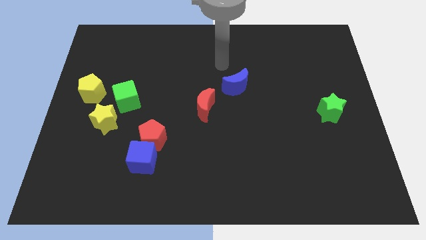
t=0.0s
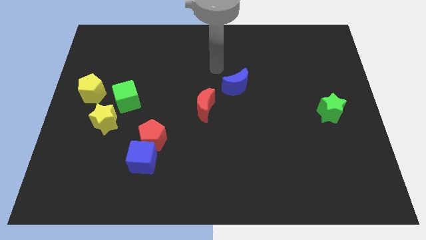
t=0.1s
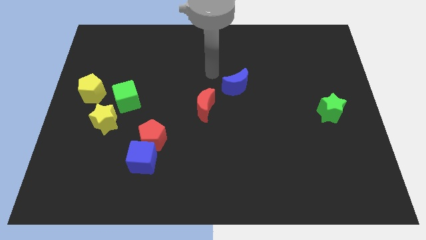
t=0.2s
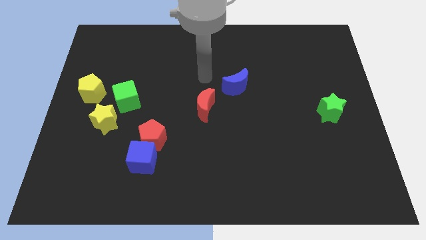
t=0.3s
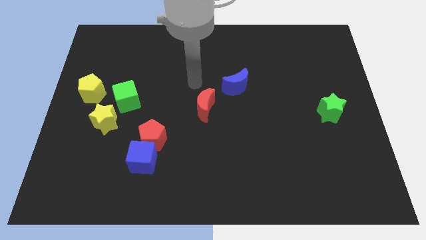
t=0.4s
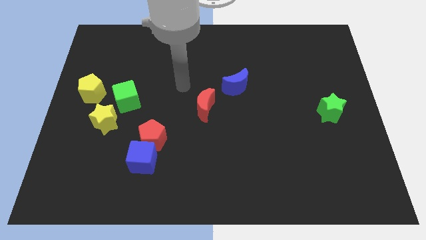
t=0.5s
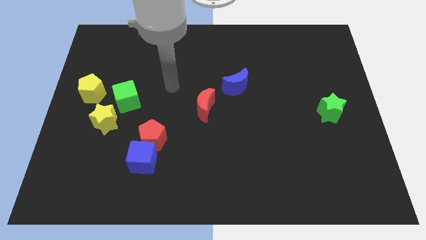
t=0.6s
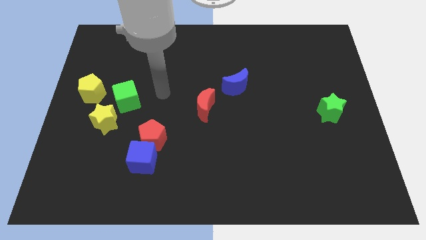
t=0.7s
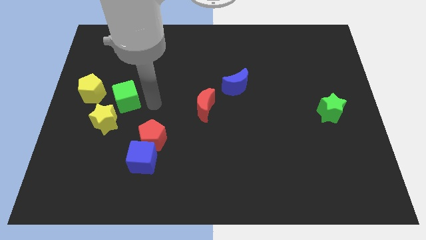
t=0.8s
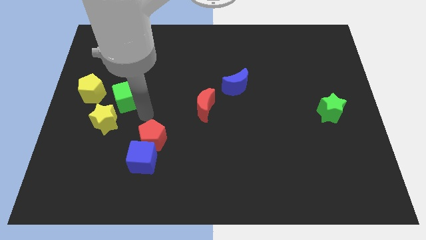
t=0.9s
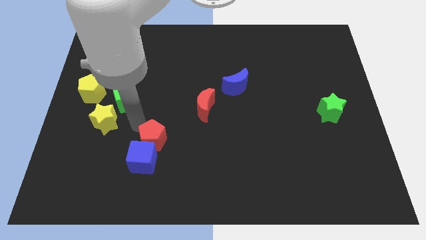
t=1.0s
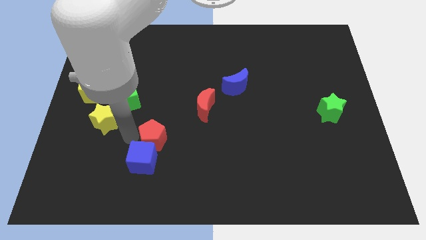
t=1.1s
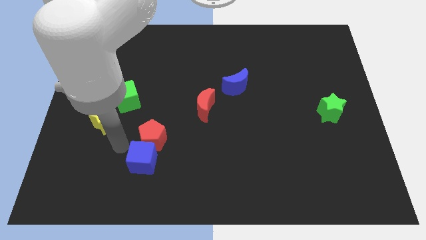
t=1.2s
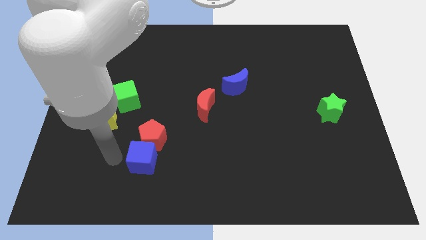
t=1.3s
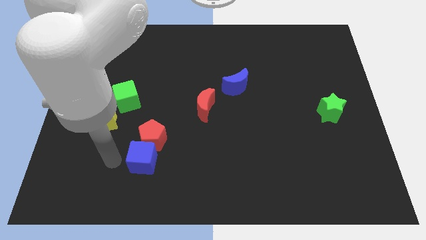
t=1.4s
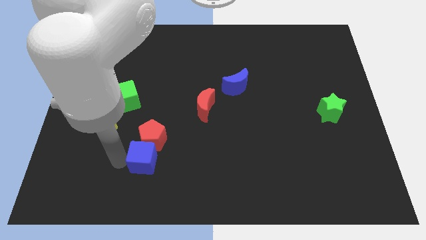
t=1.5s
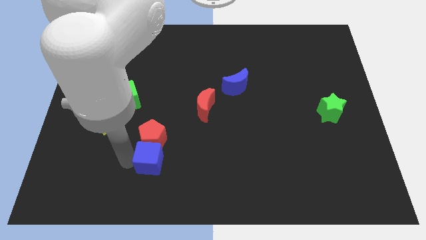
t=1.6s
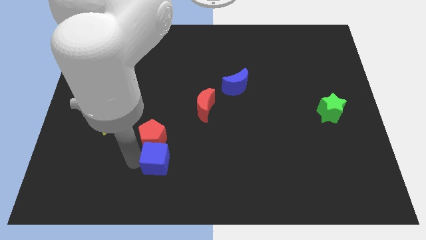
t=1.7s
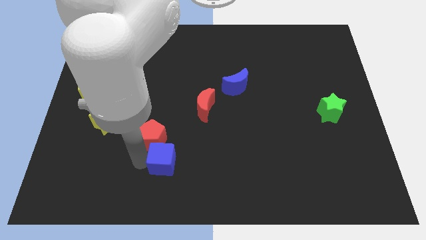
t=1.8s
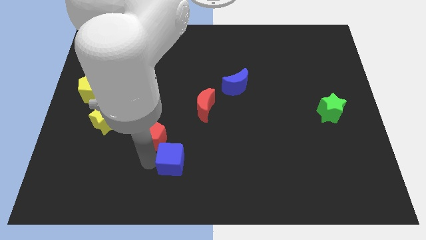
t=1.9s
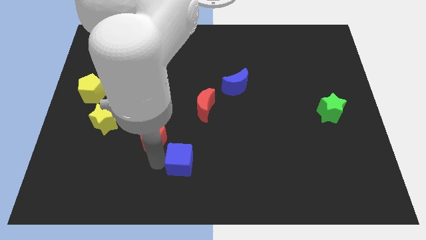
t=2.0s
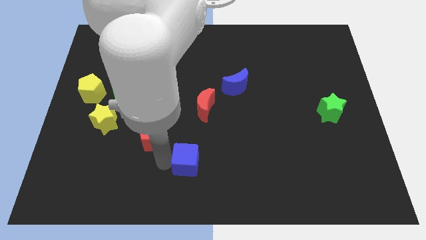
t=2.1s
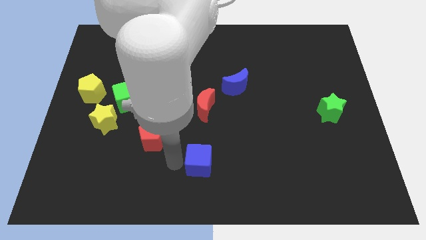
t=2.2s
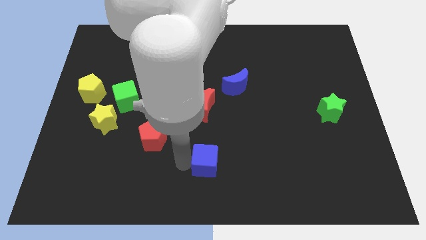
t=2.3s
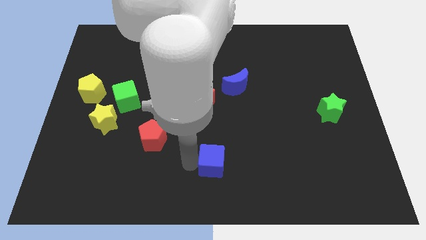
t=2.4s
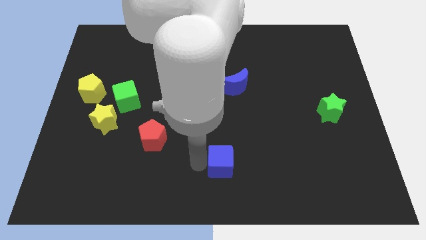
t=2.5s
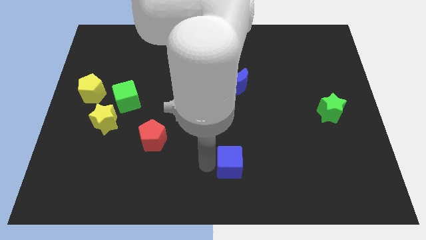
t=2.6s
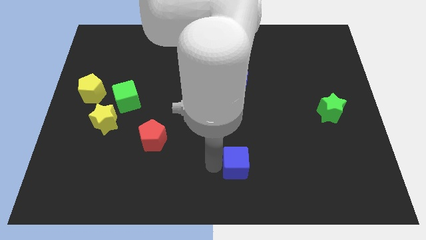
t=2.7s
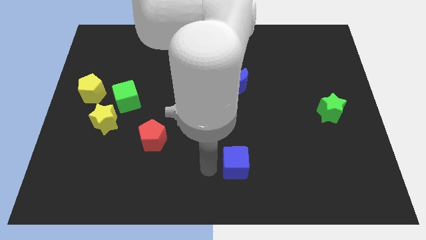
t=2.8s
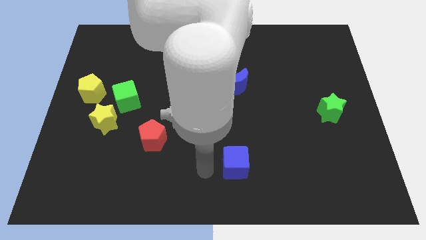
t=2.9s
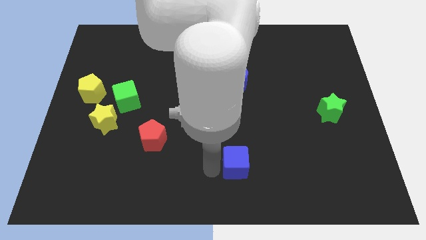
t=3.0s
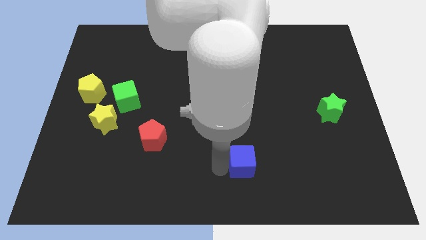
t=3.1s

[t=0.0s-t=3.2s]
push the blue cube right

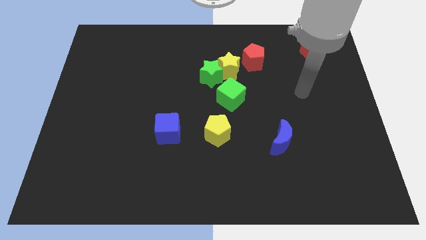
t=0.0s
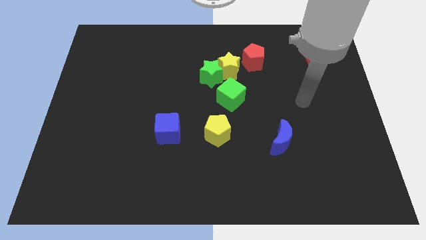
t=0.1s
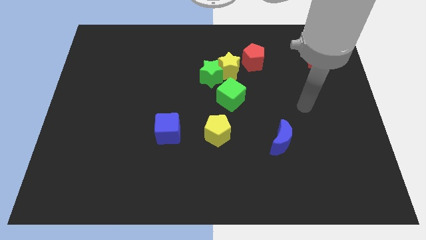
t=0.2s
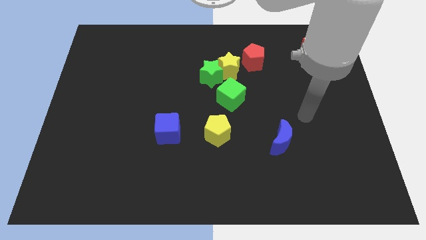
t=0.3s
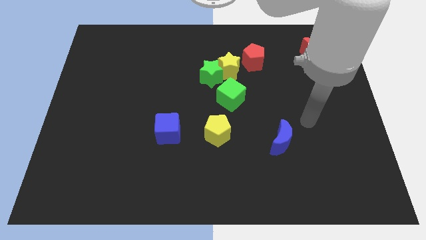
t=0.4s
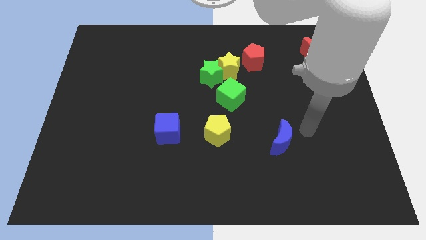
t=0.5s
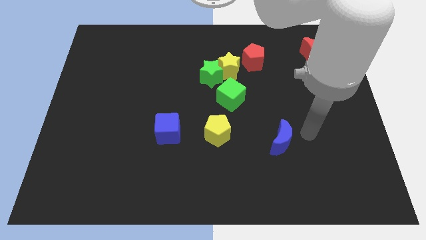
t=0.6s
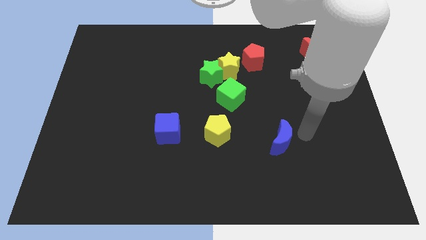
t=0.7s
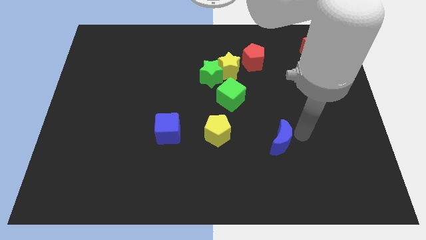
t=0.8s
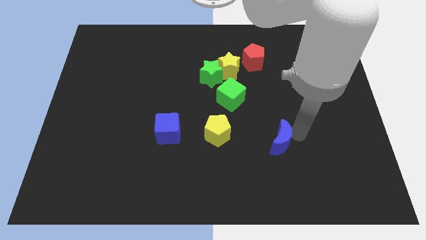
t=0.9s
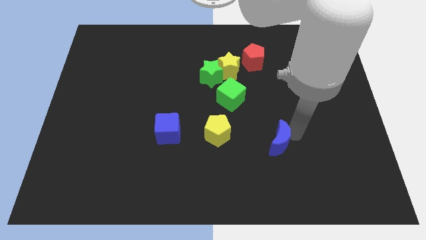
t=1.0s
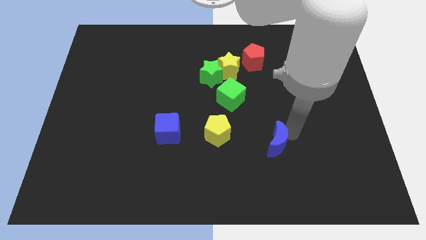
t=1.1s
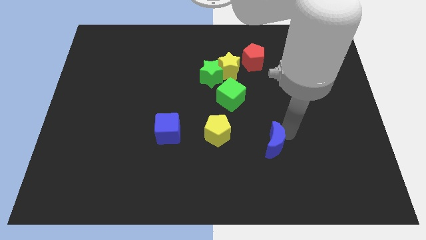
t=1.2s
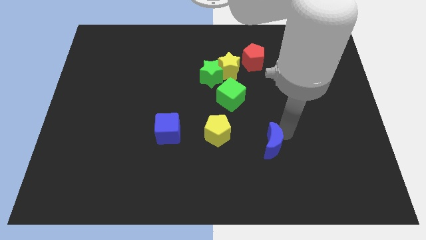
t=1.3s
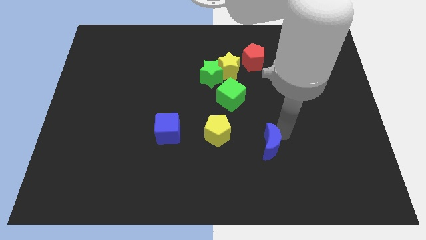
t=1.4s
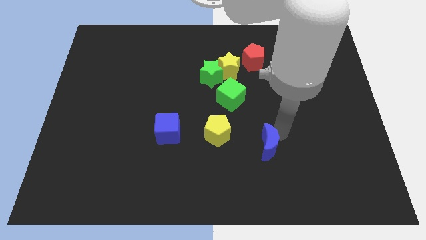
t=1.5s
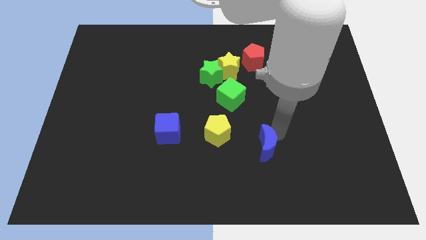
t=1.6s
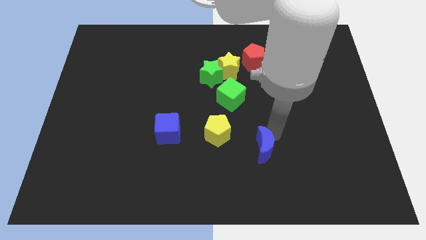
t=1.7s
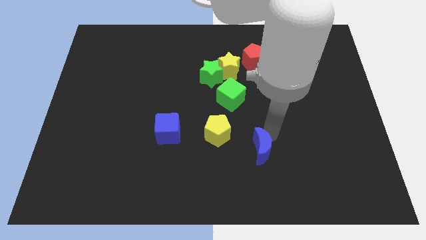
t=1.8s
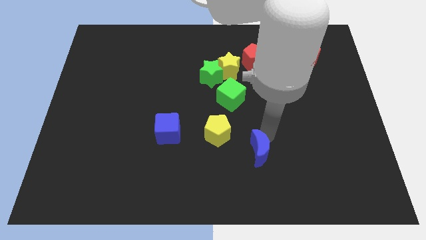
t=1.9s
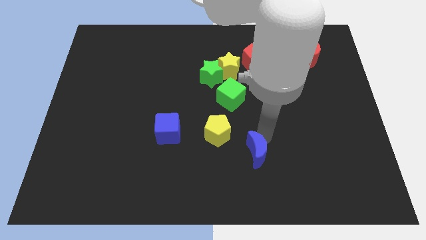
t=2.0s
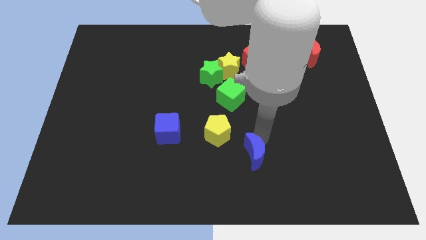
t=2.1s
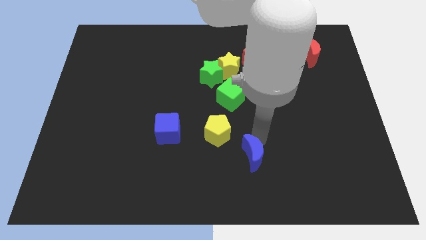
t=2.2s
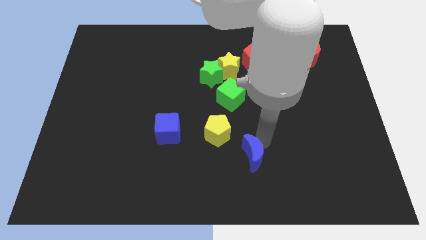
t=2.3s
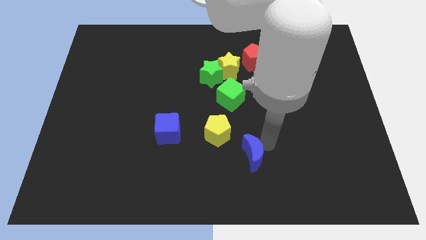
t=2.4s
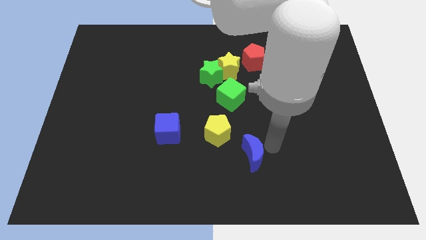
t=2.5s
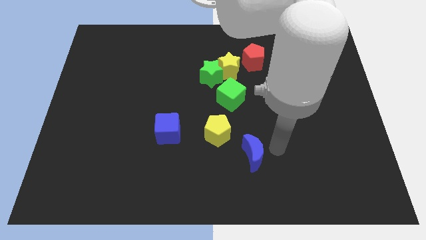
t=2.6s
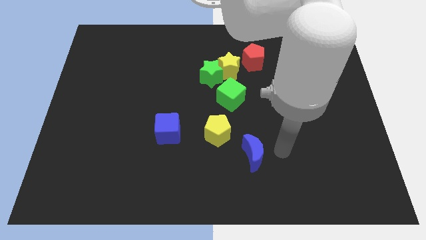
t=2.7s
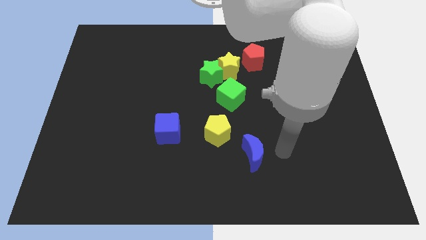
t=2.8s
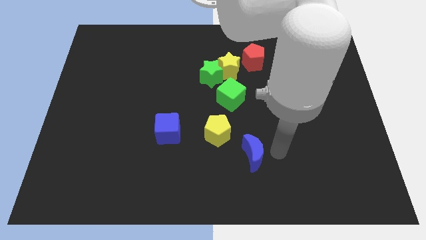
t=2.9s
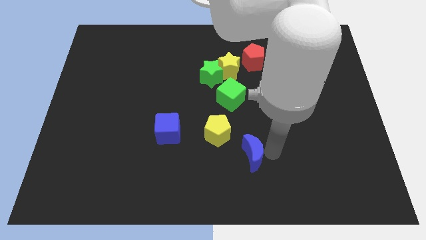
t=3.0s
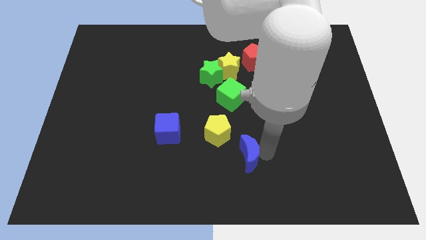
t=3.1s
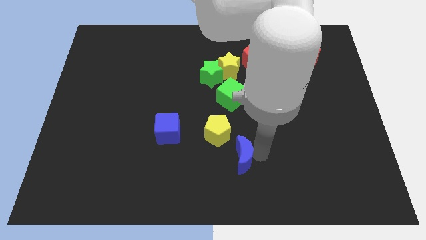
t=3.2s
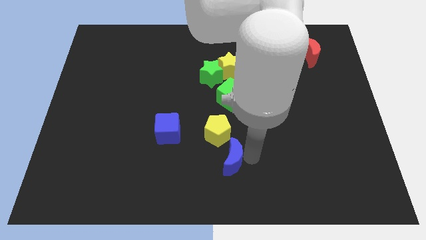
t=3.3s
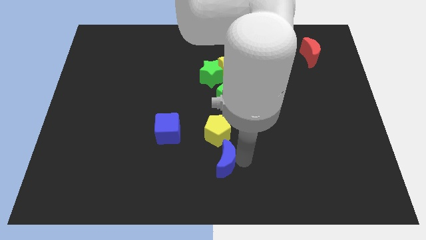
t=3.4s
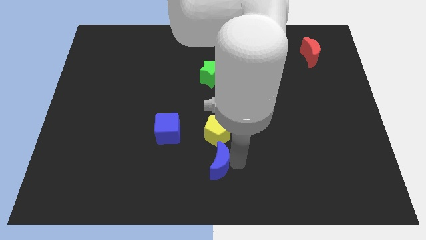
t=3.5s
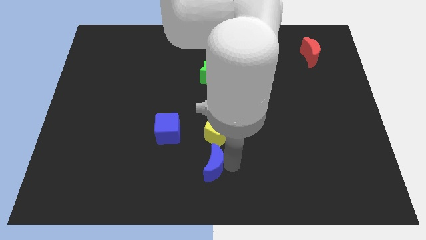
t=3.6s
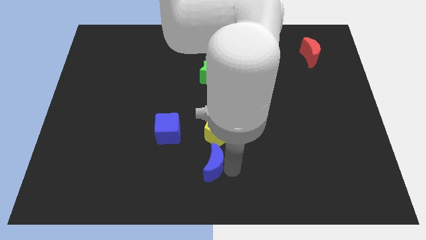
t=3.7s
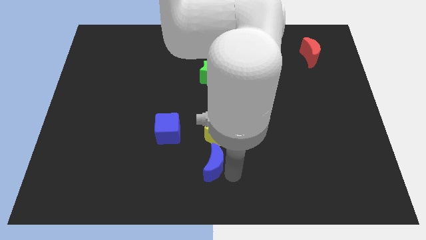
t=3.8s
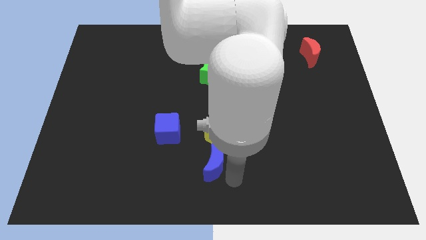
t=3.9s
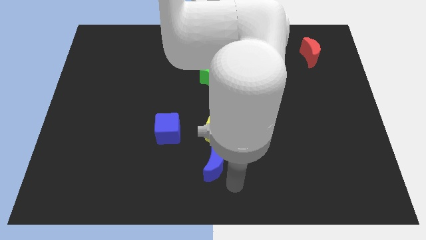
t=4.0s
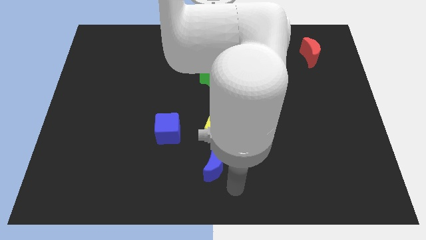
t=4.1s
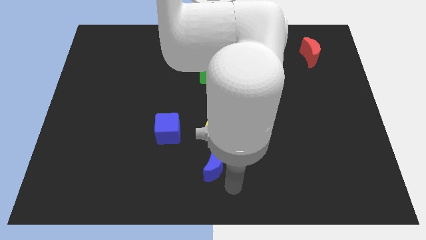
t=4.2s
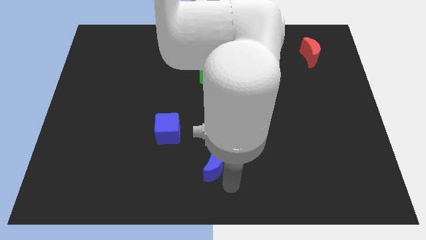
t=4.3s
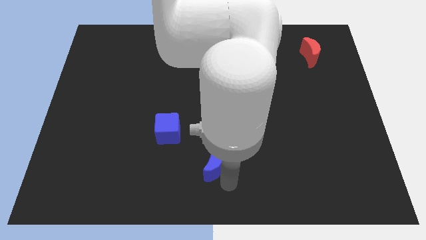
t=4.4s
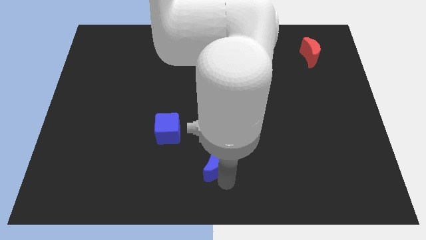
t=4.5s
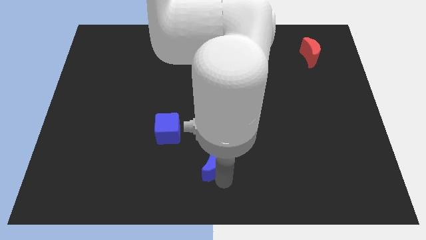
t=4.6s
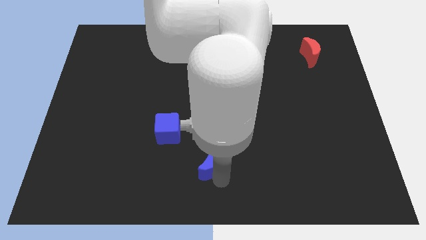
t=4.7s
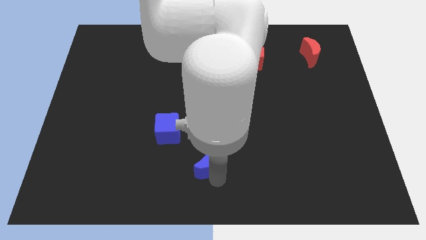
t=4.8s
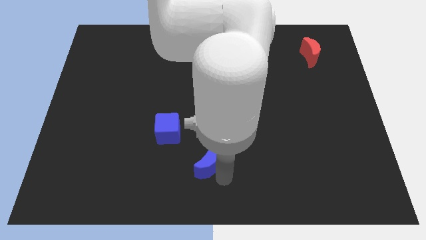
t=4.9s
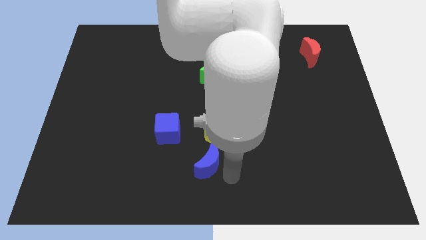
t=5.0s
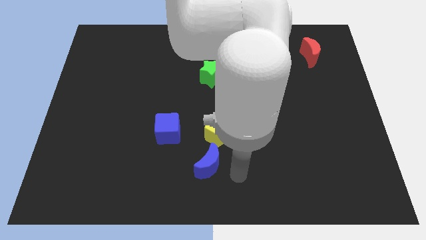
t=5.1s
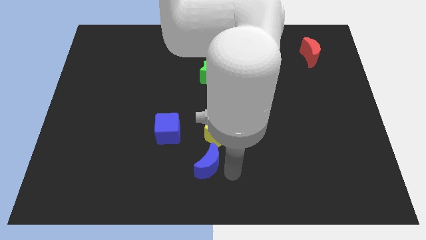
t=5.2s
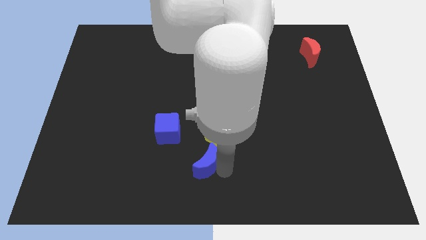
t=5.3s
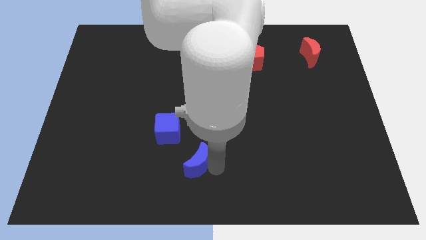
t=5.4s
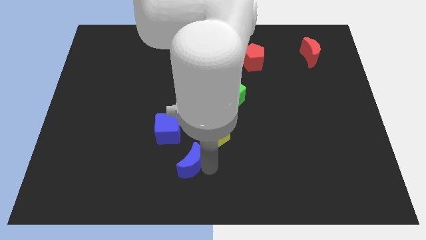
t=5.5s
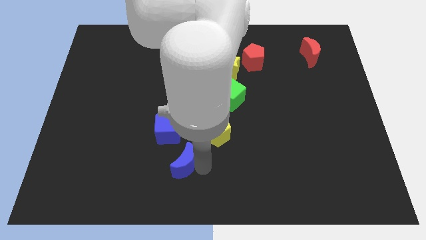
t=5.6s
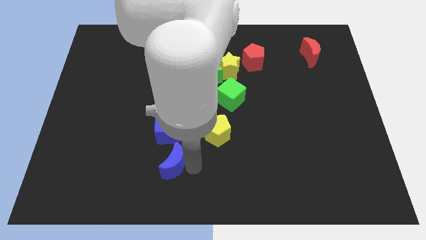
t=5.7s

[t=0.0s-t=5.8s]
move the blue moon left
